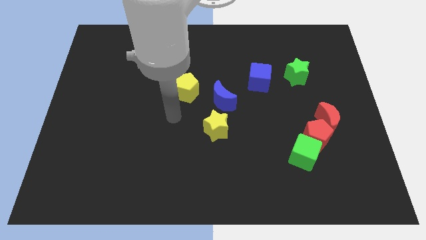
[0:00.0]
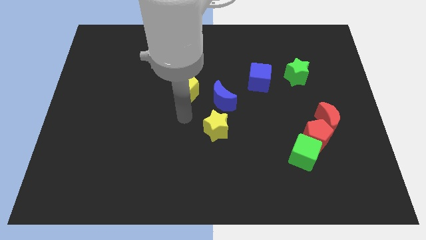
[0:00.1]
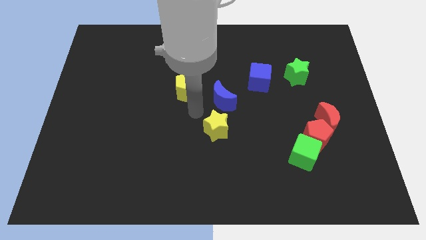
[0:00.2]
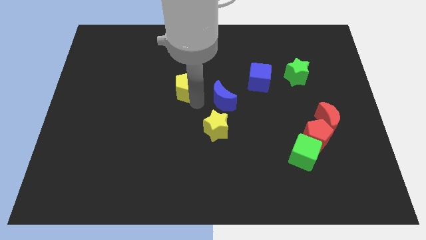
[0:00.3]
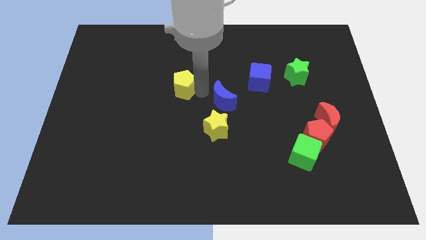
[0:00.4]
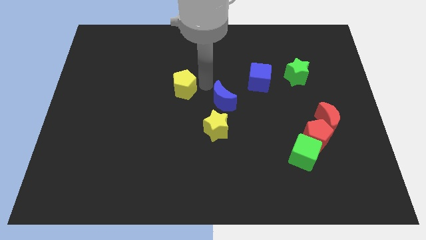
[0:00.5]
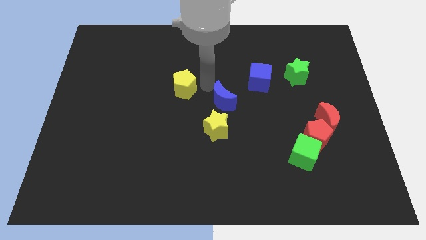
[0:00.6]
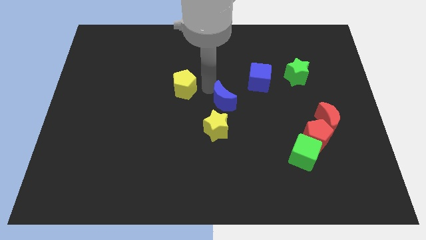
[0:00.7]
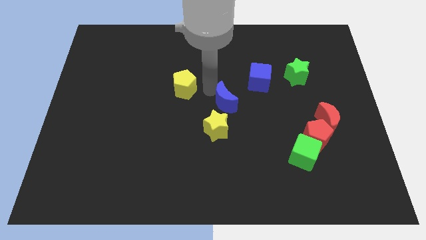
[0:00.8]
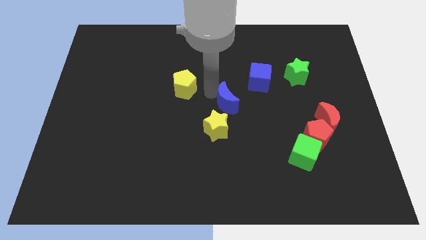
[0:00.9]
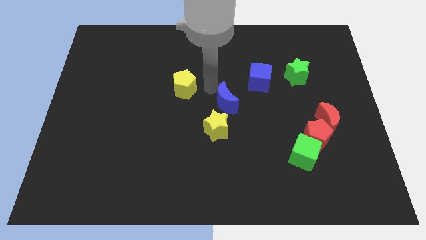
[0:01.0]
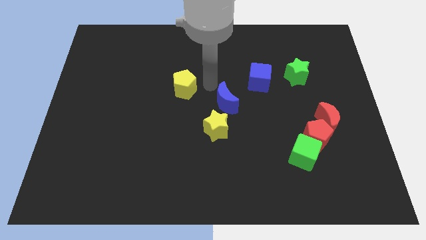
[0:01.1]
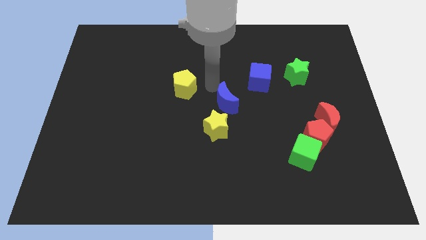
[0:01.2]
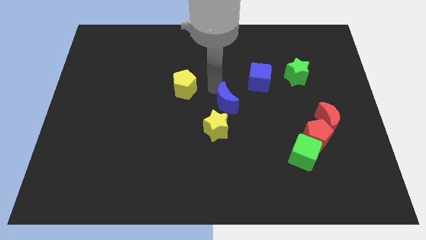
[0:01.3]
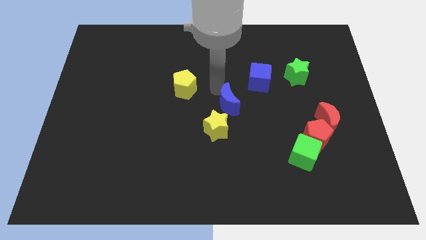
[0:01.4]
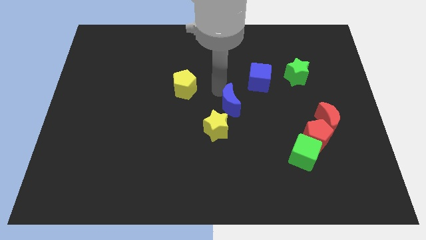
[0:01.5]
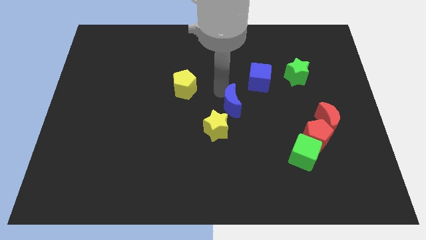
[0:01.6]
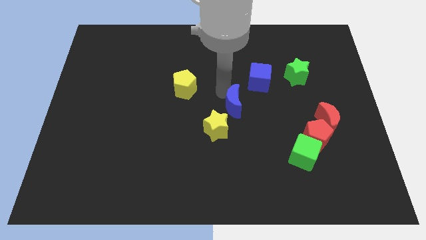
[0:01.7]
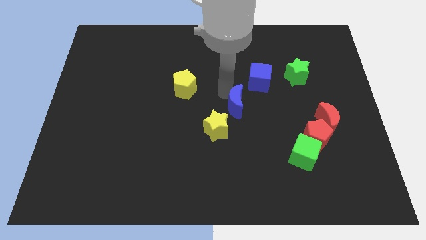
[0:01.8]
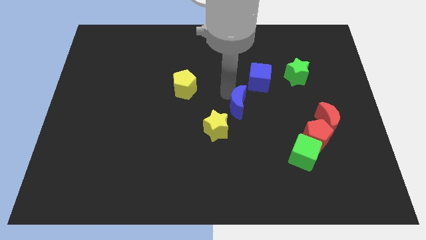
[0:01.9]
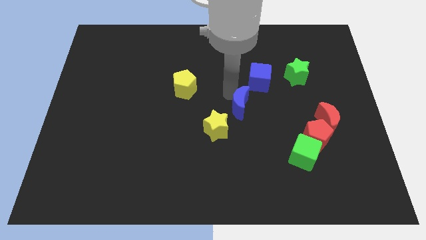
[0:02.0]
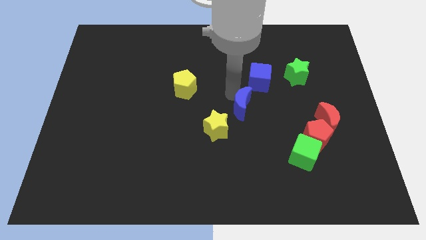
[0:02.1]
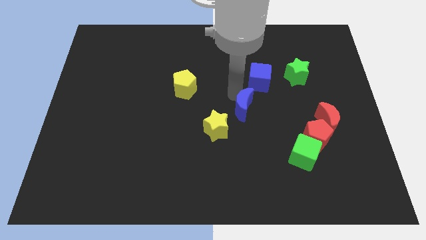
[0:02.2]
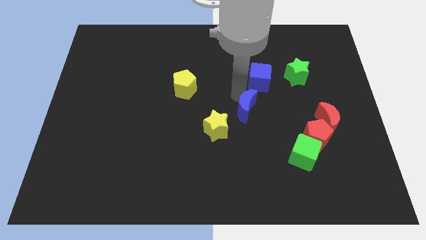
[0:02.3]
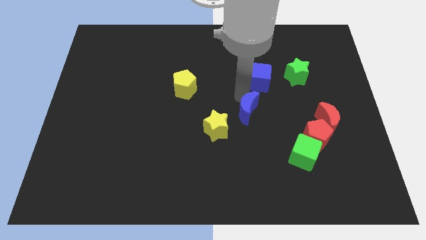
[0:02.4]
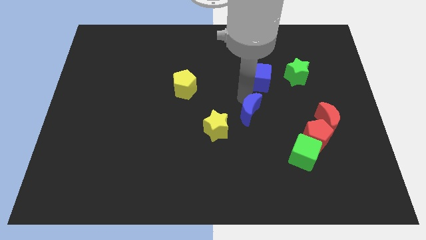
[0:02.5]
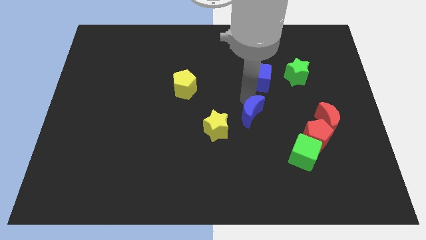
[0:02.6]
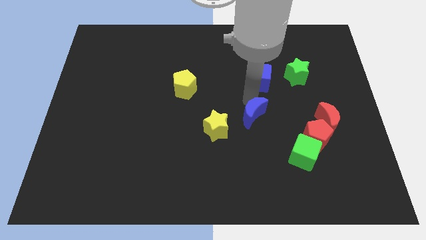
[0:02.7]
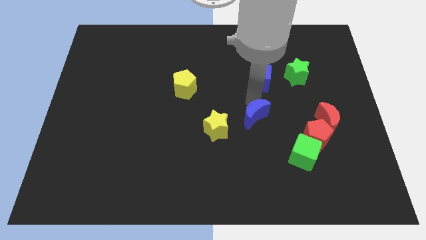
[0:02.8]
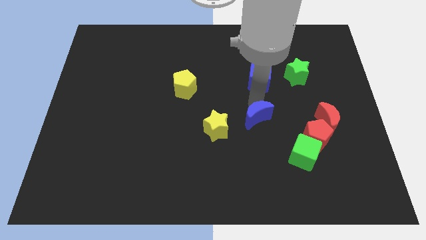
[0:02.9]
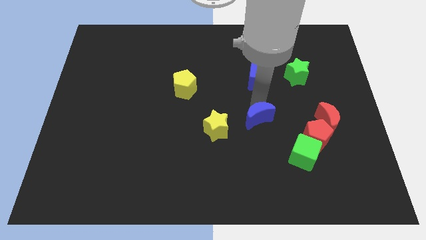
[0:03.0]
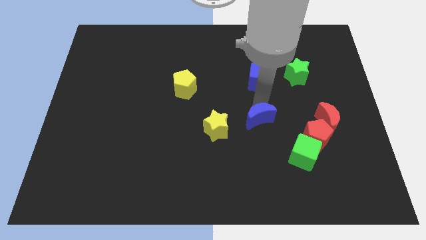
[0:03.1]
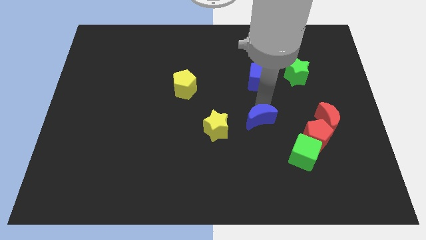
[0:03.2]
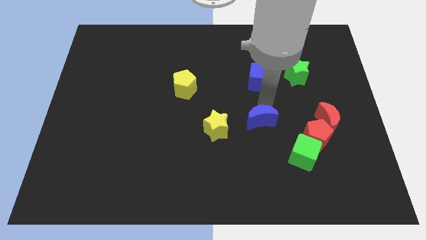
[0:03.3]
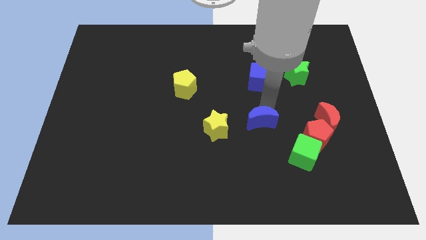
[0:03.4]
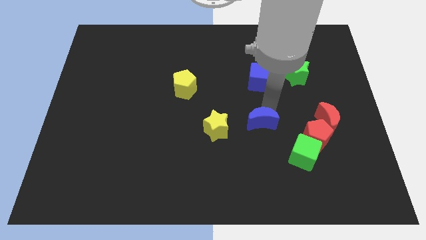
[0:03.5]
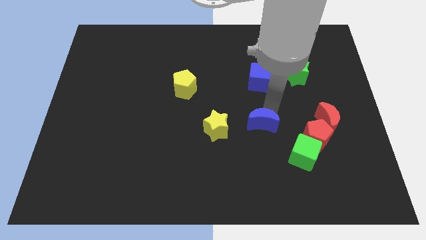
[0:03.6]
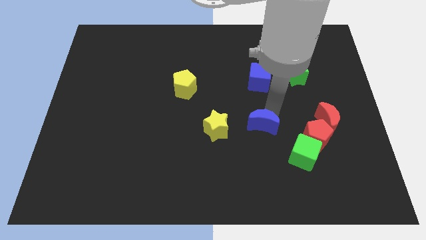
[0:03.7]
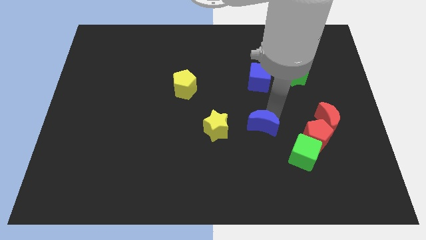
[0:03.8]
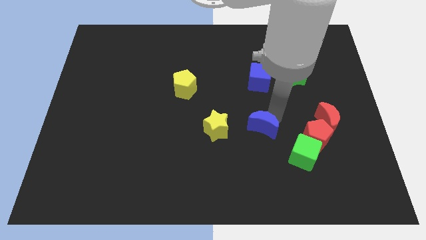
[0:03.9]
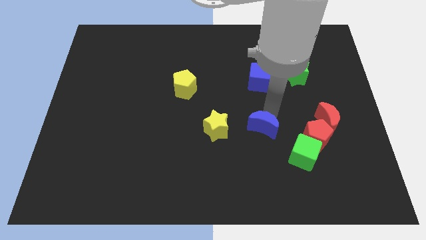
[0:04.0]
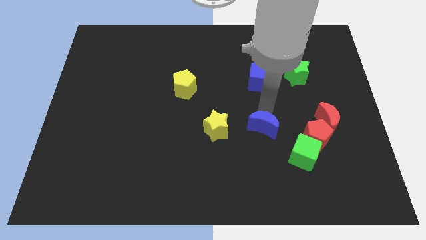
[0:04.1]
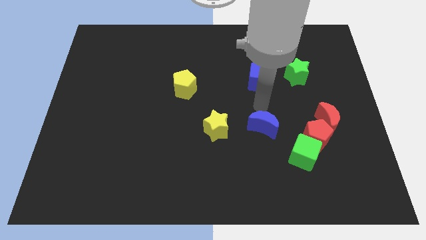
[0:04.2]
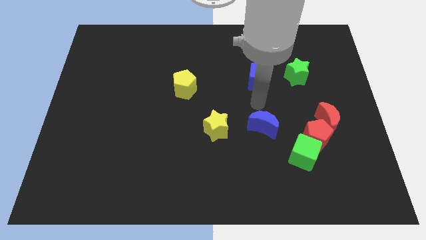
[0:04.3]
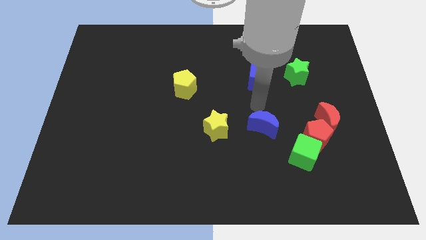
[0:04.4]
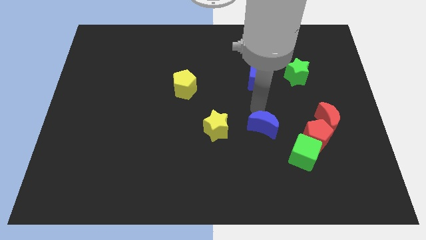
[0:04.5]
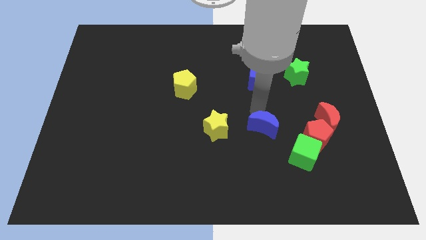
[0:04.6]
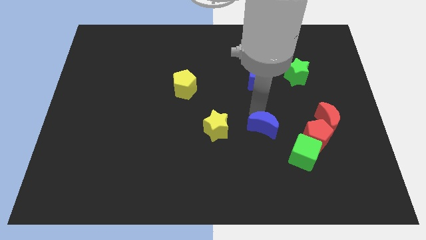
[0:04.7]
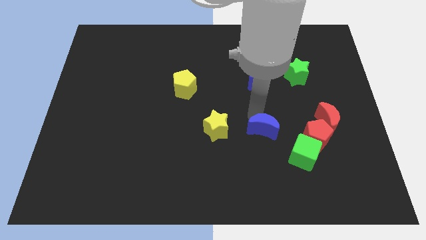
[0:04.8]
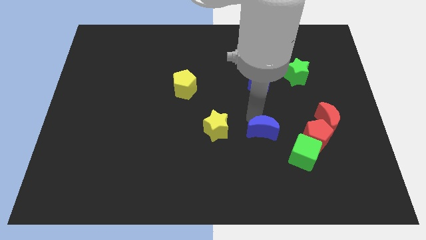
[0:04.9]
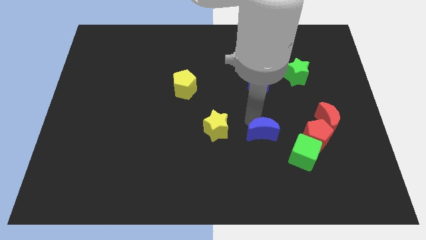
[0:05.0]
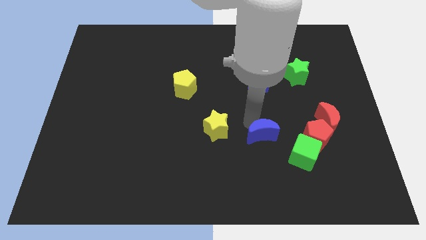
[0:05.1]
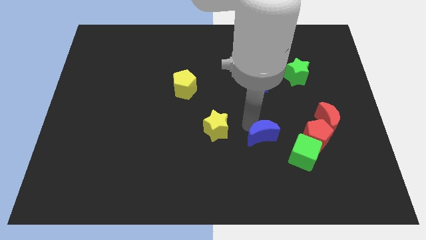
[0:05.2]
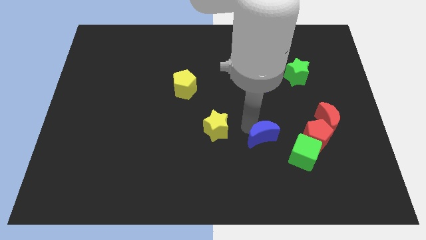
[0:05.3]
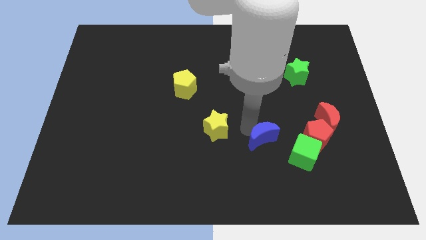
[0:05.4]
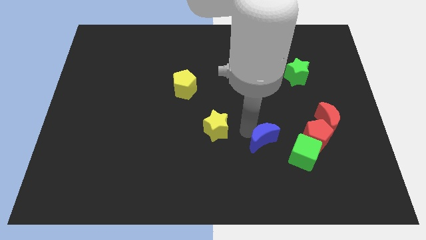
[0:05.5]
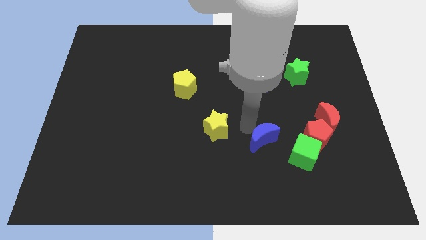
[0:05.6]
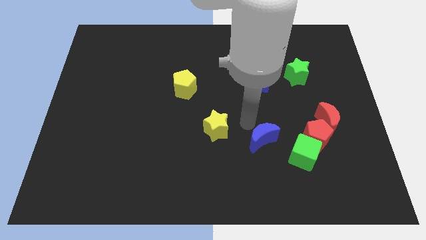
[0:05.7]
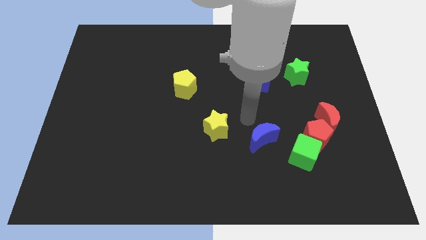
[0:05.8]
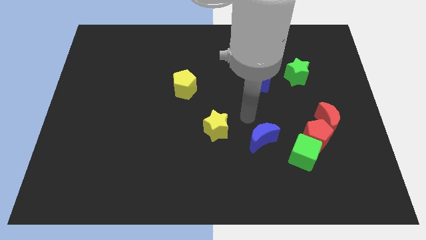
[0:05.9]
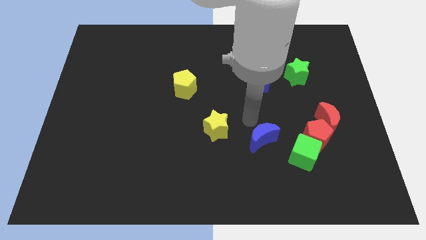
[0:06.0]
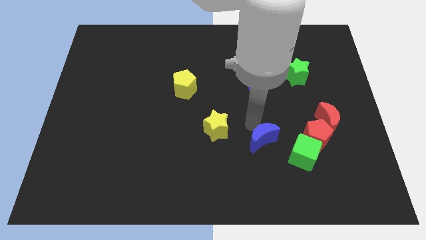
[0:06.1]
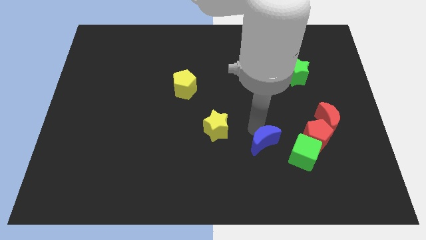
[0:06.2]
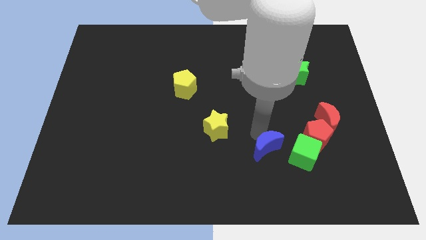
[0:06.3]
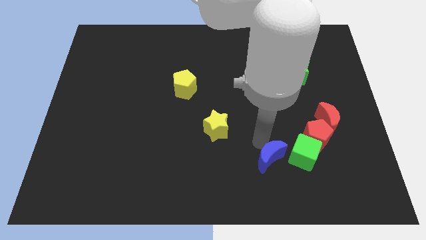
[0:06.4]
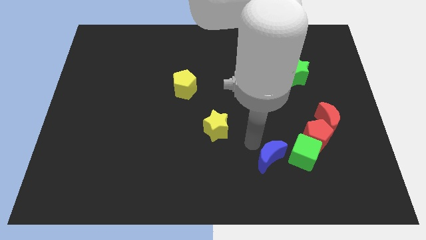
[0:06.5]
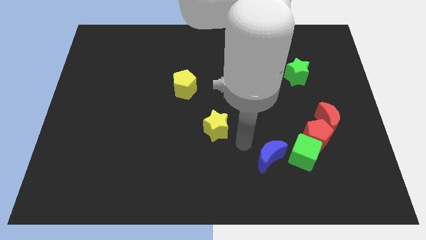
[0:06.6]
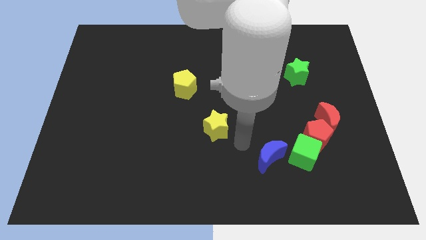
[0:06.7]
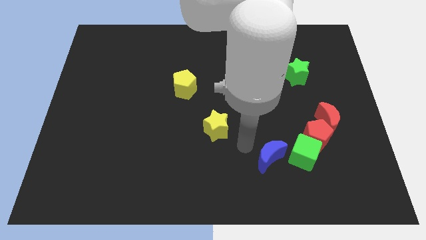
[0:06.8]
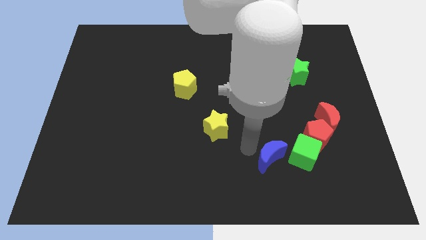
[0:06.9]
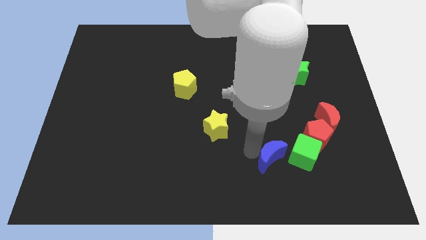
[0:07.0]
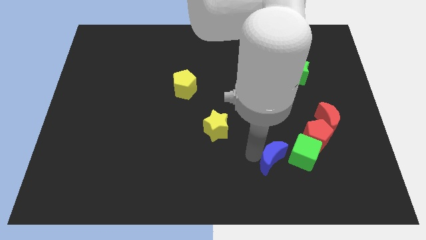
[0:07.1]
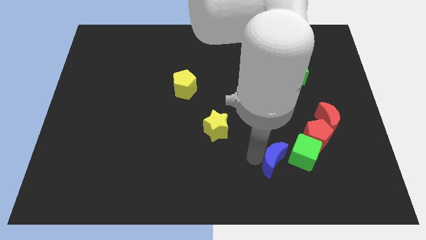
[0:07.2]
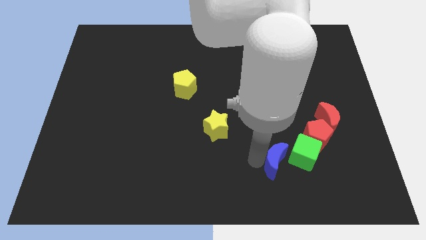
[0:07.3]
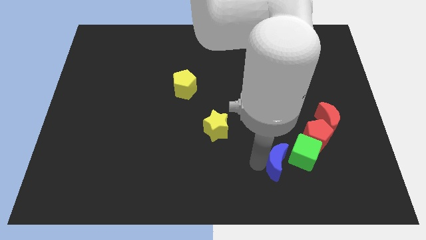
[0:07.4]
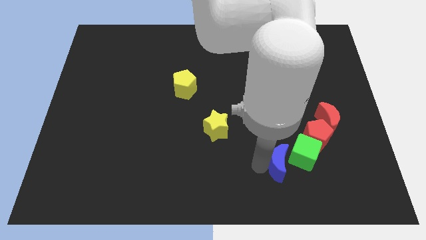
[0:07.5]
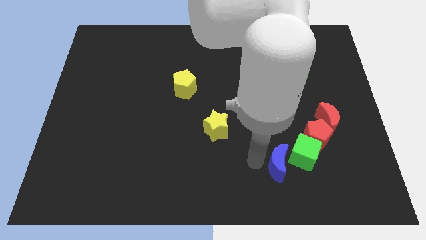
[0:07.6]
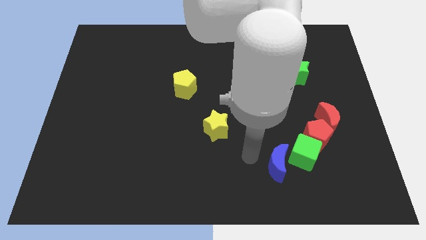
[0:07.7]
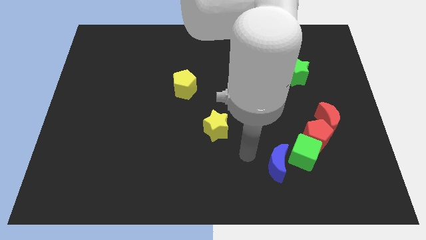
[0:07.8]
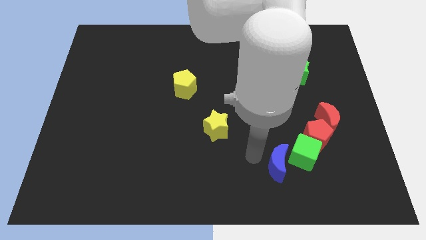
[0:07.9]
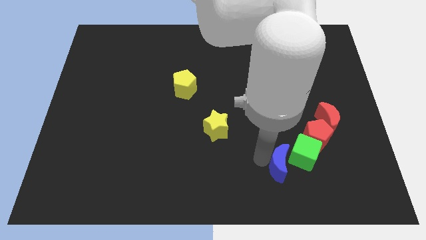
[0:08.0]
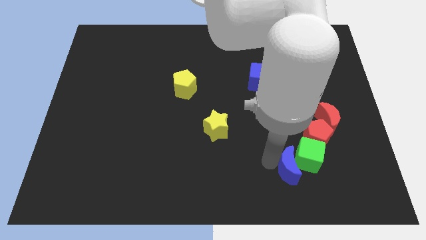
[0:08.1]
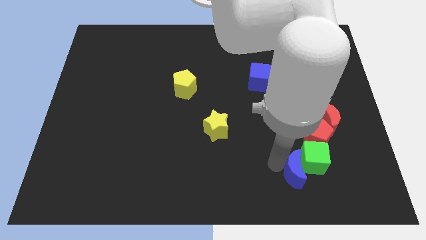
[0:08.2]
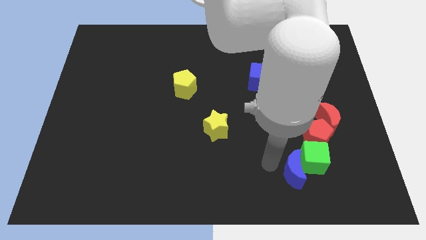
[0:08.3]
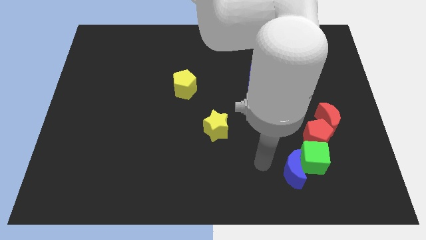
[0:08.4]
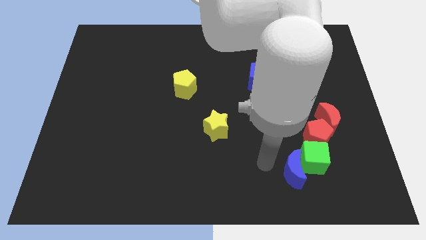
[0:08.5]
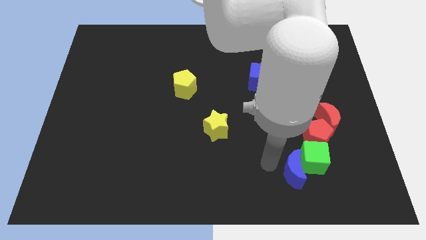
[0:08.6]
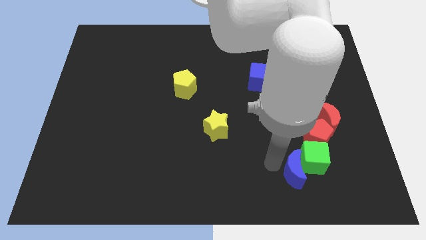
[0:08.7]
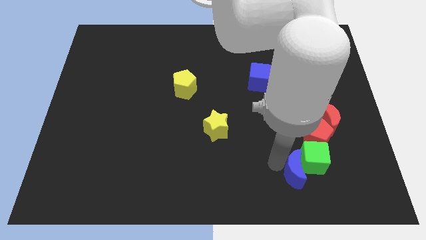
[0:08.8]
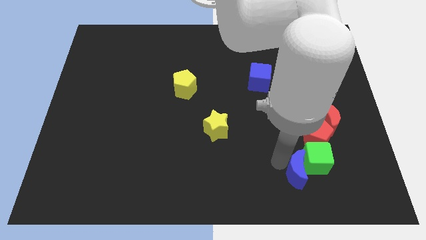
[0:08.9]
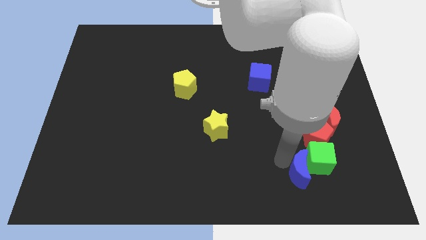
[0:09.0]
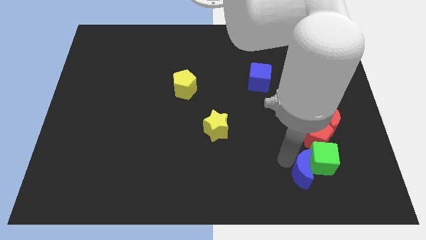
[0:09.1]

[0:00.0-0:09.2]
move the blue moon below the red pentagon
